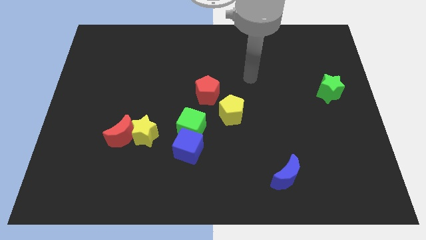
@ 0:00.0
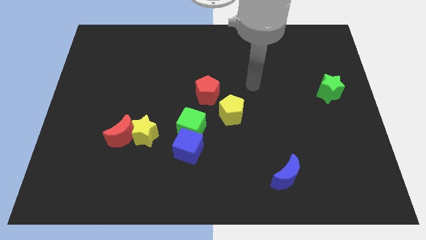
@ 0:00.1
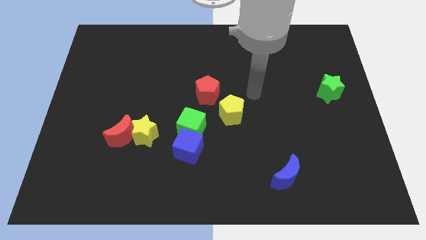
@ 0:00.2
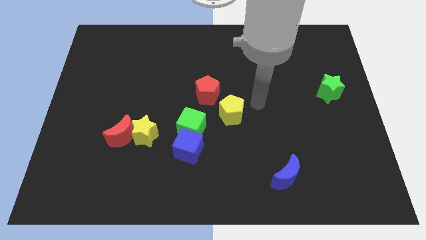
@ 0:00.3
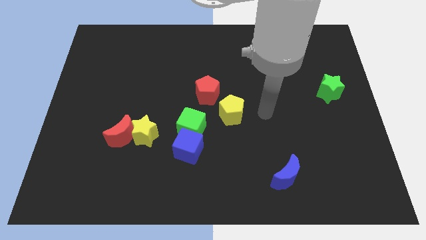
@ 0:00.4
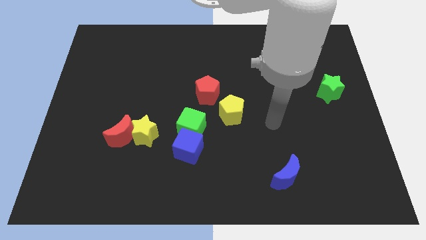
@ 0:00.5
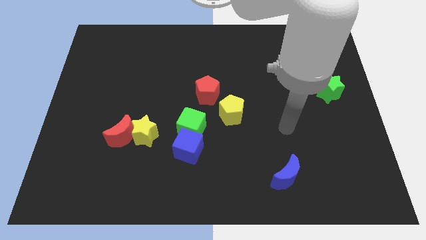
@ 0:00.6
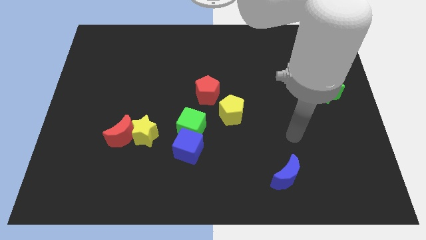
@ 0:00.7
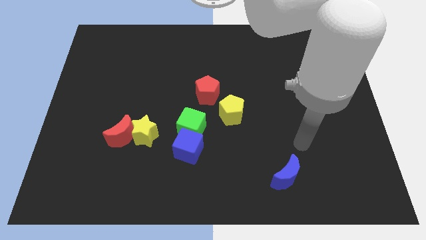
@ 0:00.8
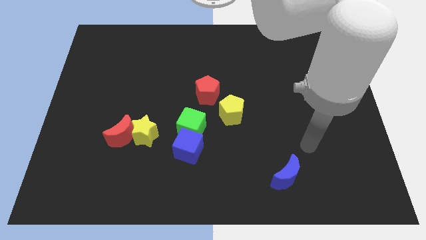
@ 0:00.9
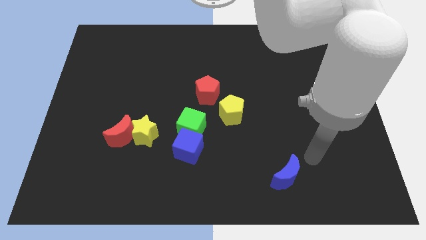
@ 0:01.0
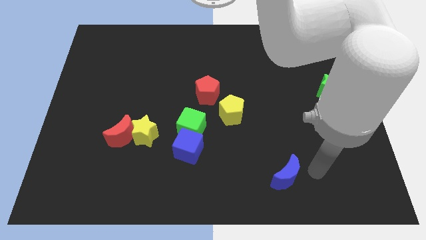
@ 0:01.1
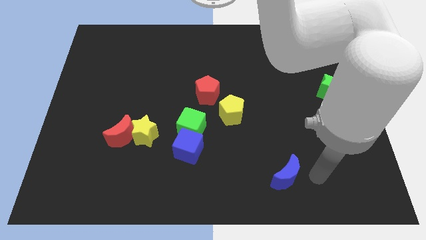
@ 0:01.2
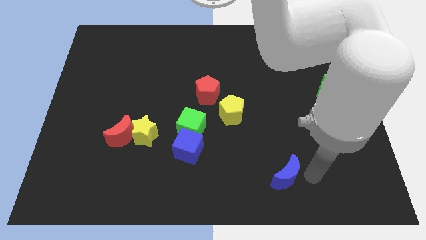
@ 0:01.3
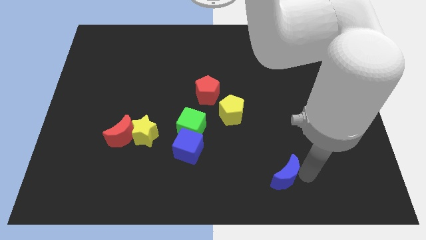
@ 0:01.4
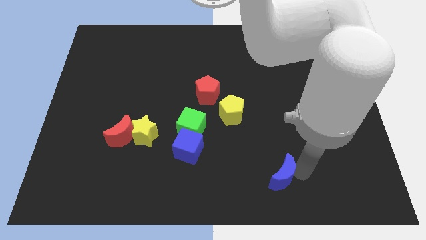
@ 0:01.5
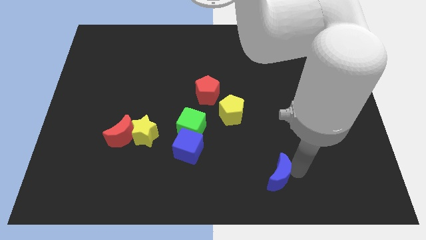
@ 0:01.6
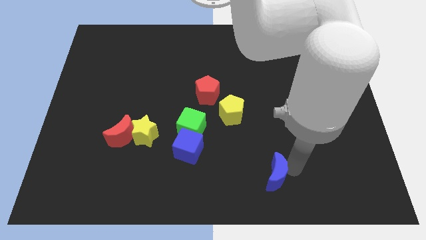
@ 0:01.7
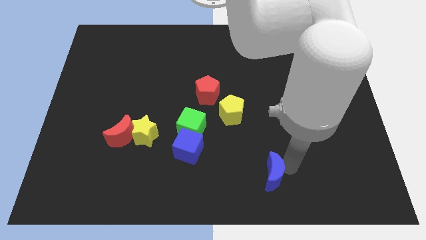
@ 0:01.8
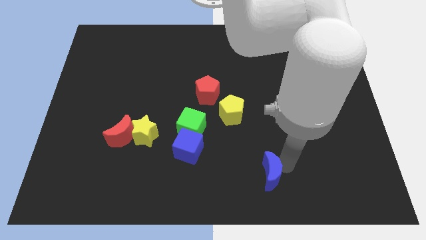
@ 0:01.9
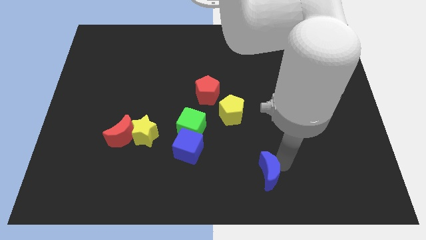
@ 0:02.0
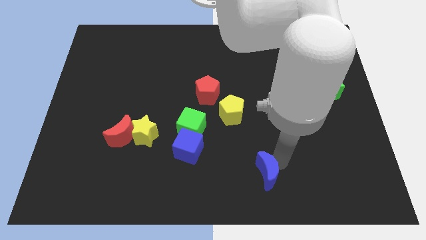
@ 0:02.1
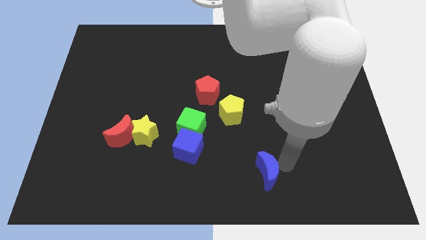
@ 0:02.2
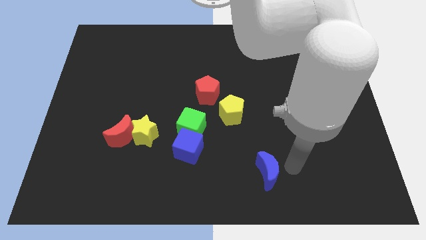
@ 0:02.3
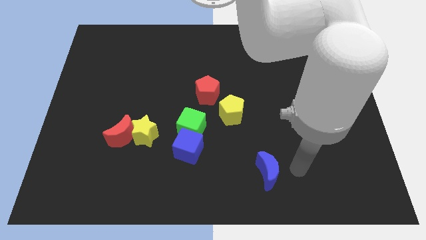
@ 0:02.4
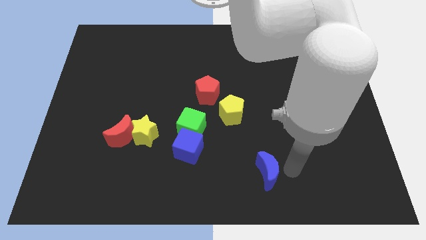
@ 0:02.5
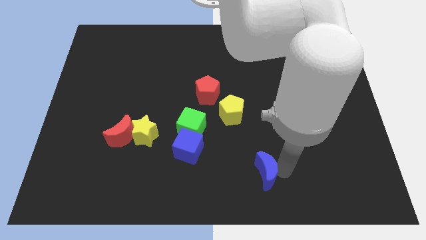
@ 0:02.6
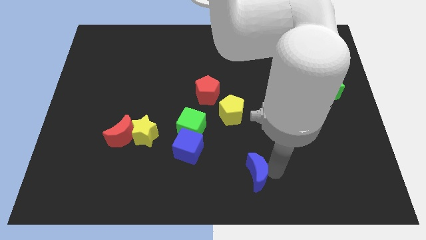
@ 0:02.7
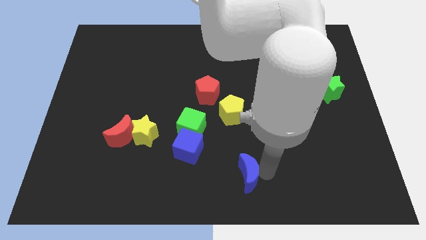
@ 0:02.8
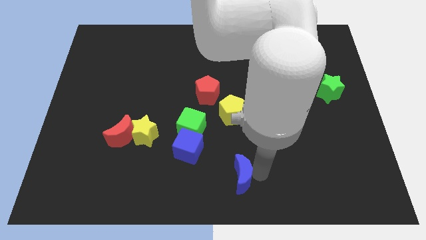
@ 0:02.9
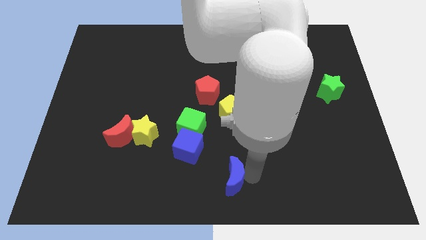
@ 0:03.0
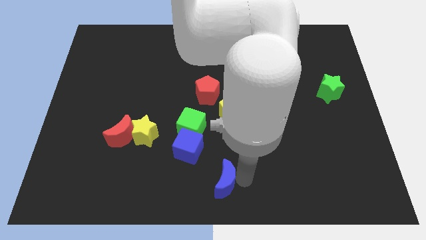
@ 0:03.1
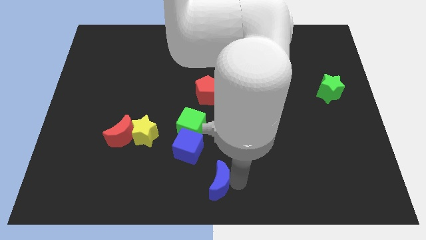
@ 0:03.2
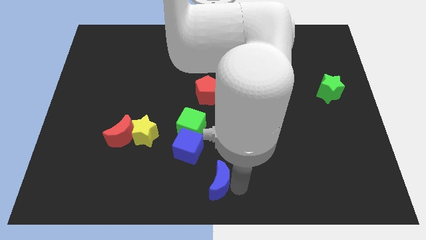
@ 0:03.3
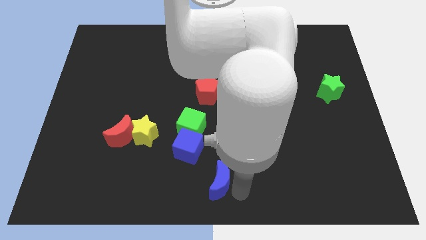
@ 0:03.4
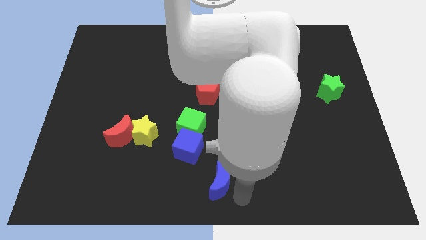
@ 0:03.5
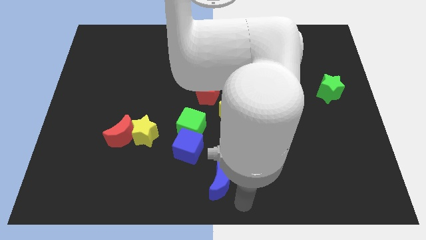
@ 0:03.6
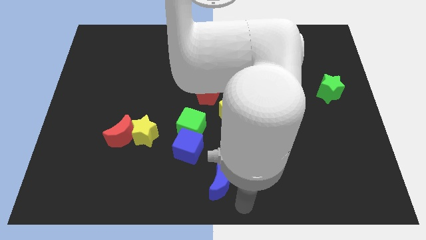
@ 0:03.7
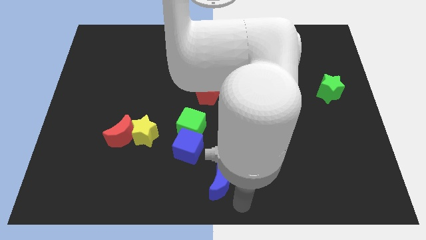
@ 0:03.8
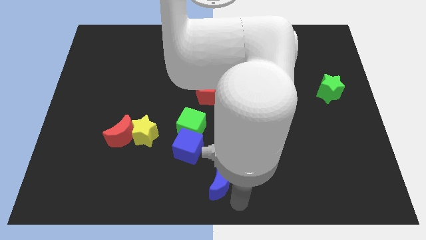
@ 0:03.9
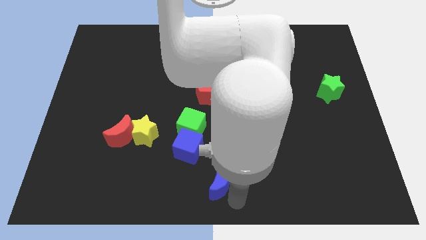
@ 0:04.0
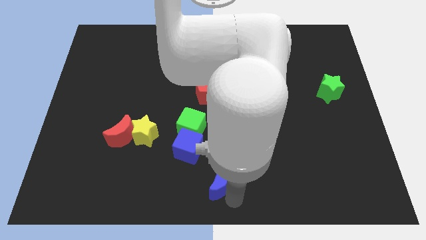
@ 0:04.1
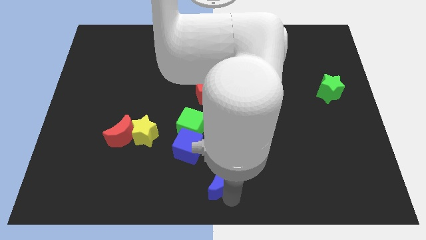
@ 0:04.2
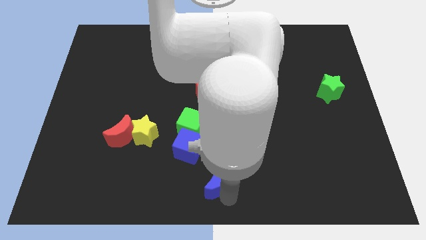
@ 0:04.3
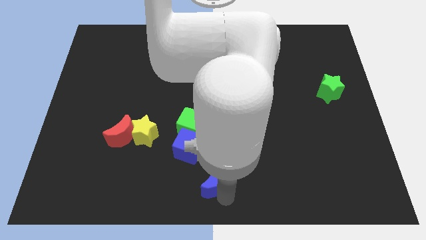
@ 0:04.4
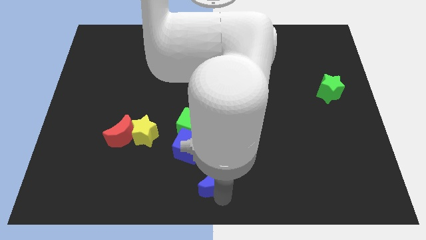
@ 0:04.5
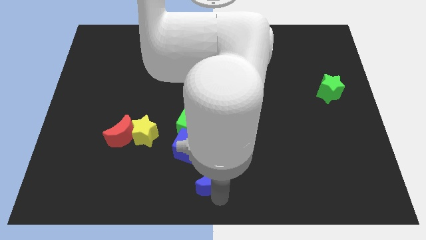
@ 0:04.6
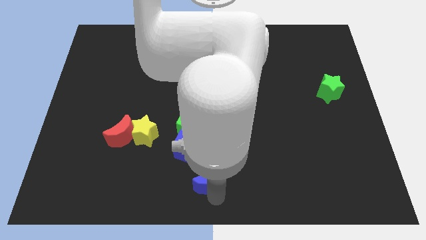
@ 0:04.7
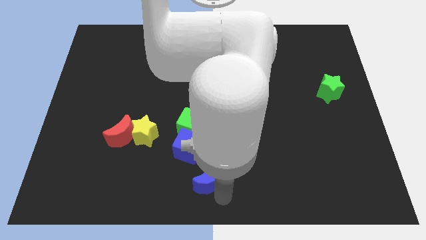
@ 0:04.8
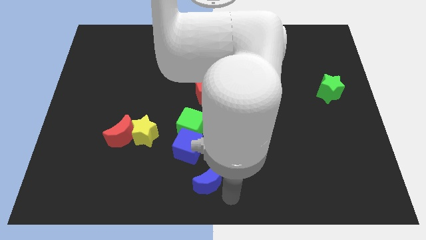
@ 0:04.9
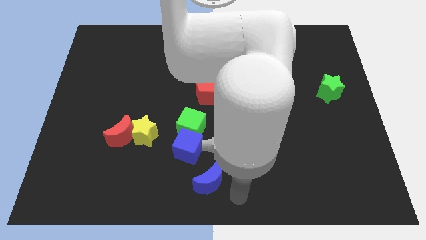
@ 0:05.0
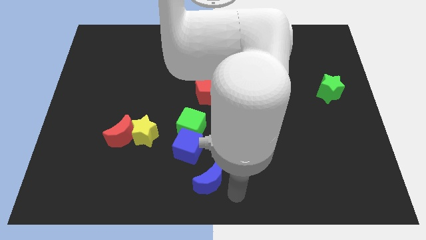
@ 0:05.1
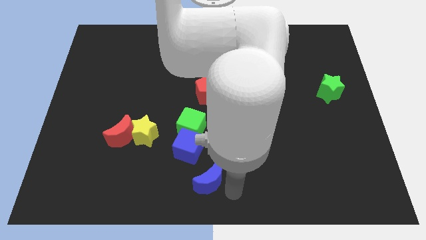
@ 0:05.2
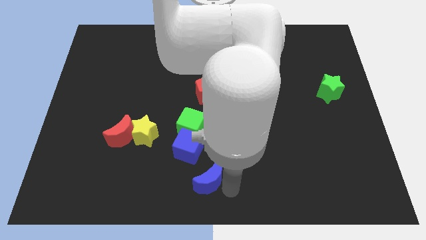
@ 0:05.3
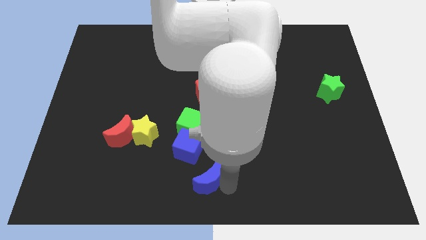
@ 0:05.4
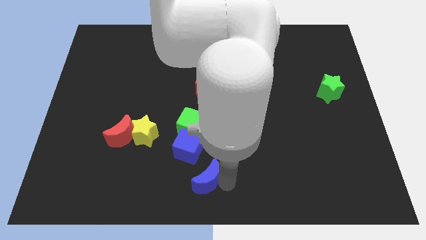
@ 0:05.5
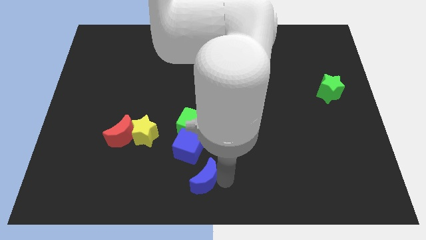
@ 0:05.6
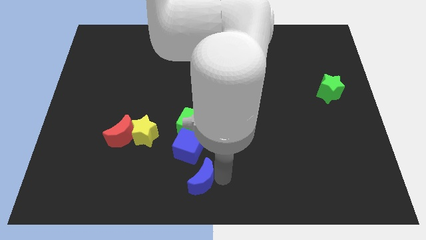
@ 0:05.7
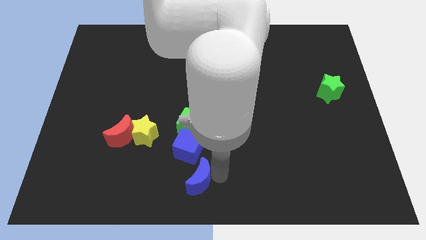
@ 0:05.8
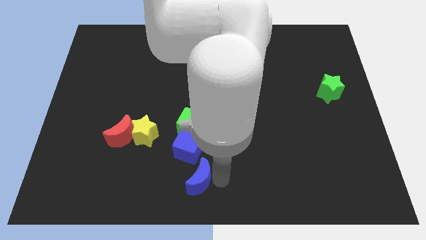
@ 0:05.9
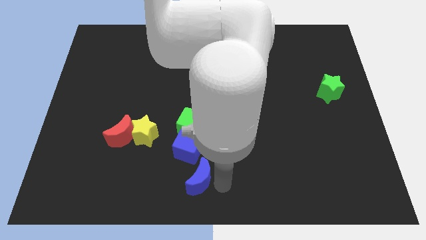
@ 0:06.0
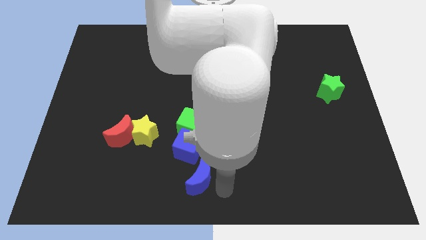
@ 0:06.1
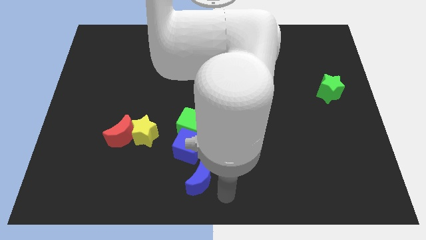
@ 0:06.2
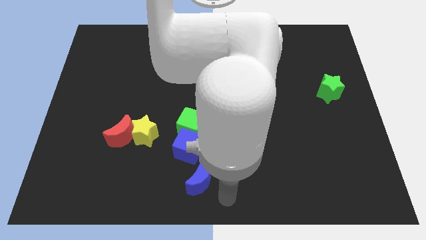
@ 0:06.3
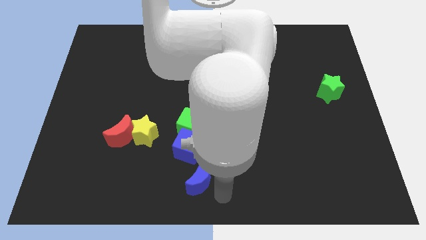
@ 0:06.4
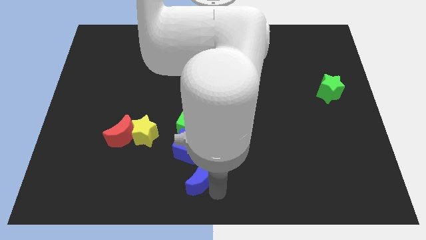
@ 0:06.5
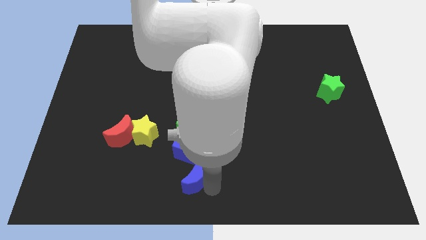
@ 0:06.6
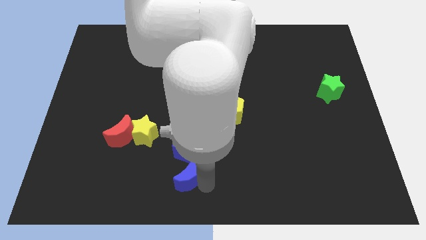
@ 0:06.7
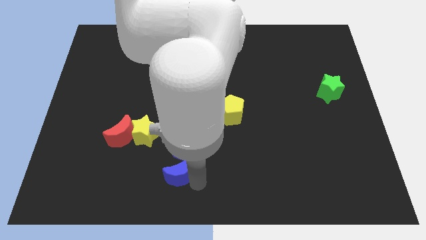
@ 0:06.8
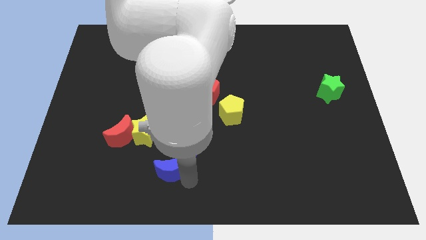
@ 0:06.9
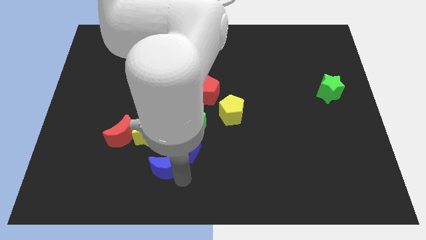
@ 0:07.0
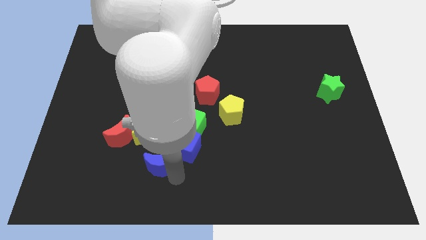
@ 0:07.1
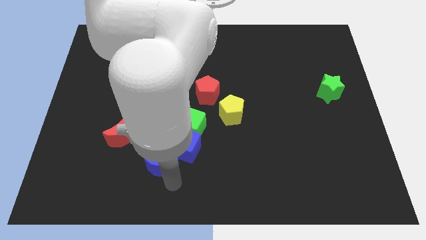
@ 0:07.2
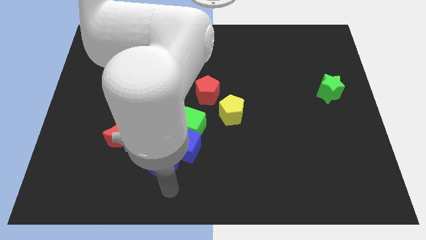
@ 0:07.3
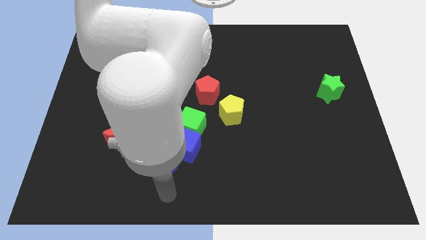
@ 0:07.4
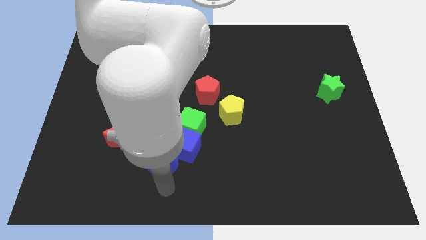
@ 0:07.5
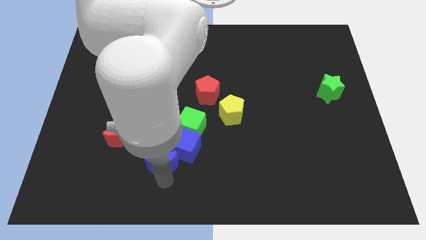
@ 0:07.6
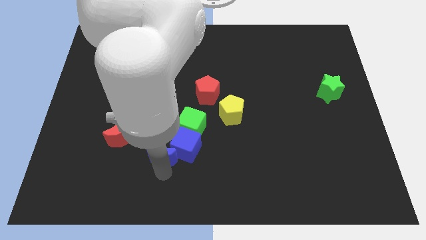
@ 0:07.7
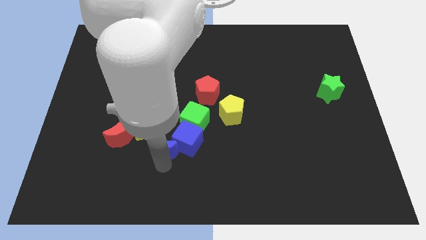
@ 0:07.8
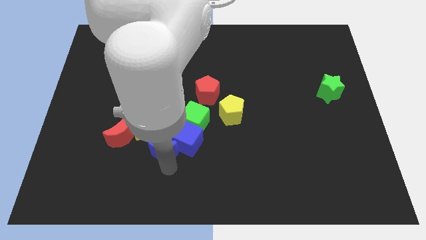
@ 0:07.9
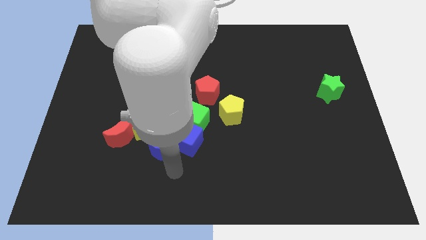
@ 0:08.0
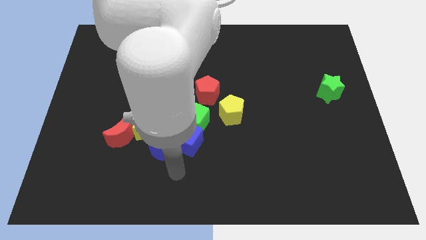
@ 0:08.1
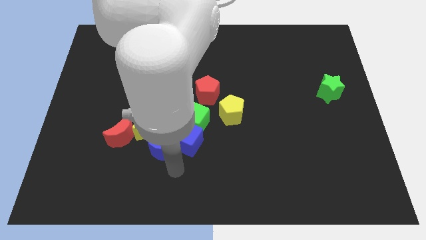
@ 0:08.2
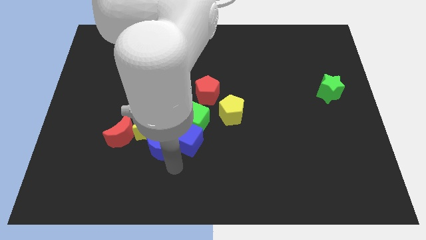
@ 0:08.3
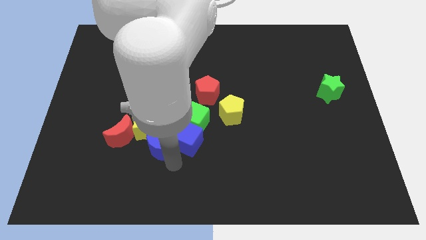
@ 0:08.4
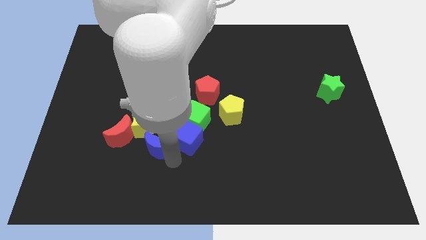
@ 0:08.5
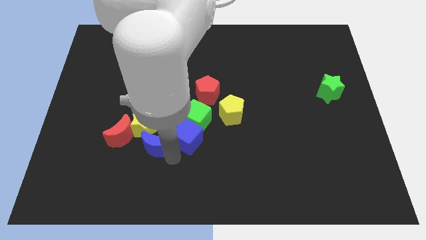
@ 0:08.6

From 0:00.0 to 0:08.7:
slide the blue moon to the yellow star
